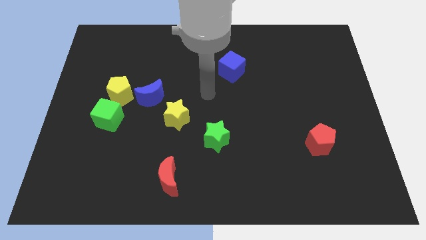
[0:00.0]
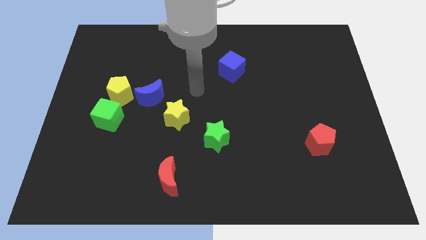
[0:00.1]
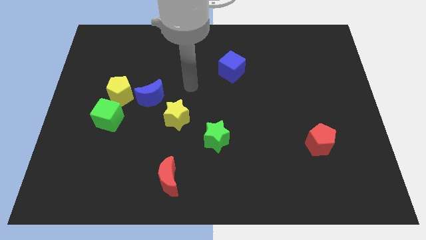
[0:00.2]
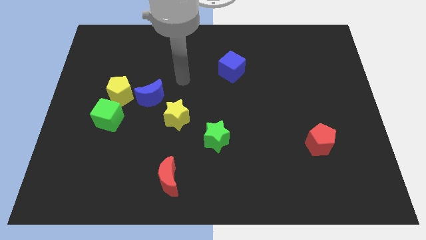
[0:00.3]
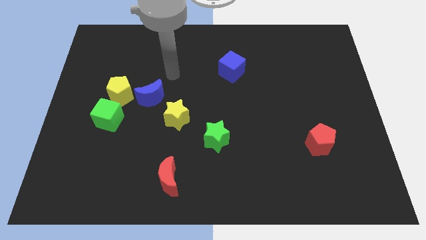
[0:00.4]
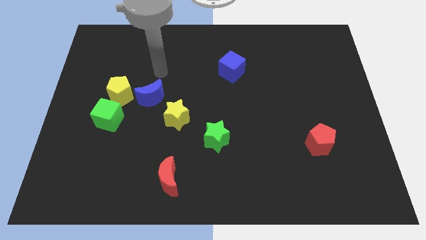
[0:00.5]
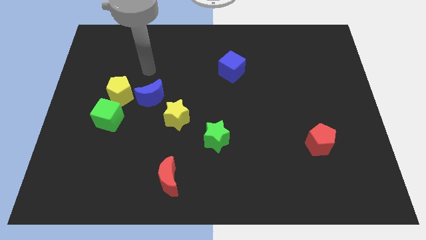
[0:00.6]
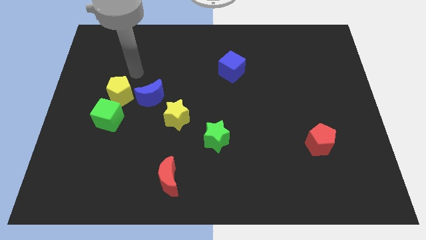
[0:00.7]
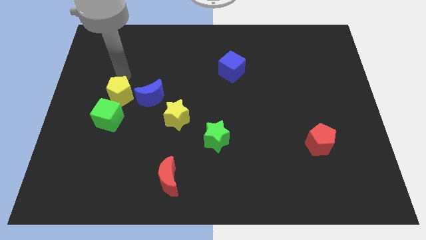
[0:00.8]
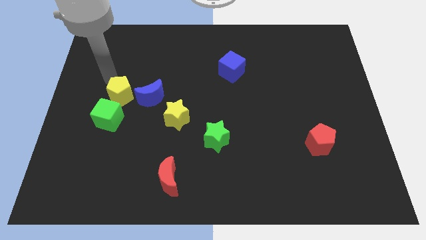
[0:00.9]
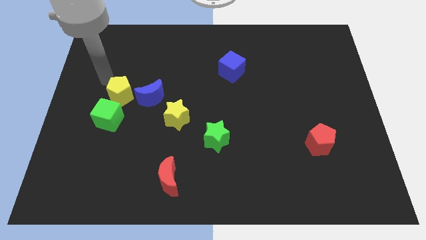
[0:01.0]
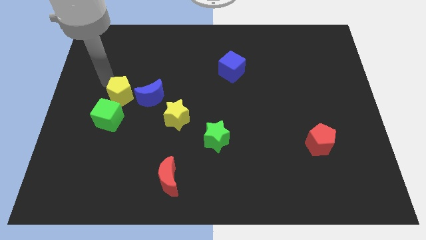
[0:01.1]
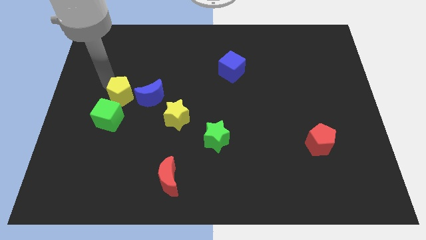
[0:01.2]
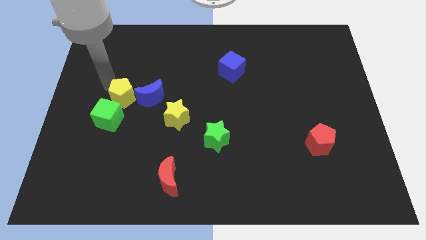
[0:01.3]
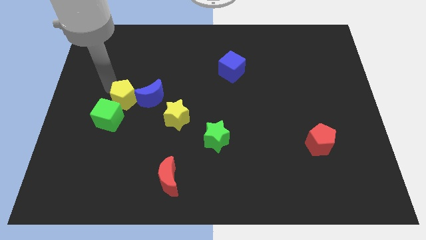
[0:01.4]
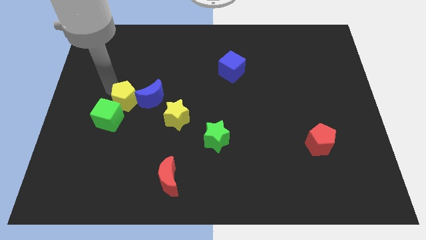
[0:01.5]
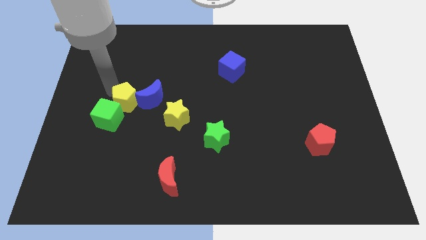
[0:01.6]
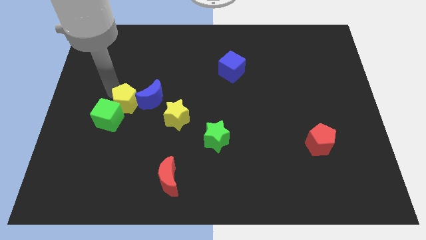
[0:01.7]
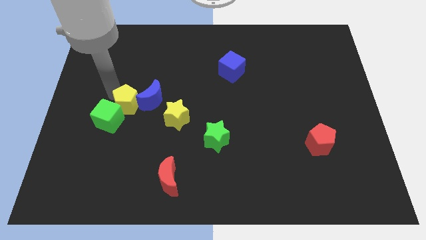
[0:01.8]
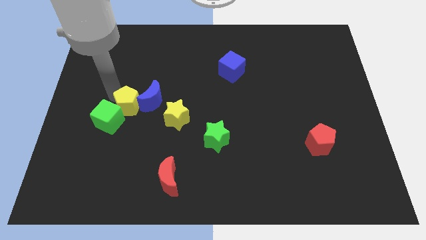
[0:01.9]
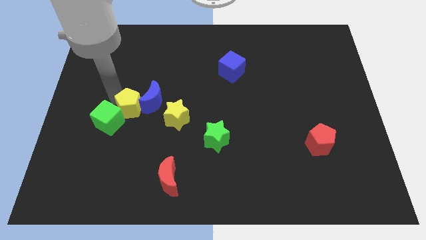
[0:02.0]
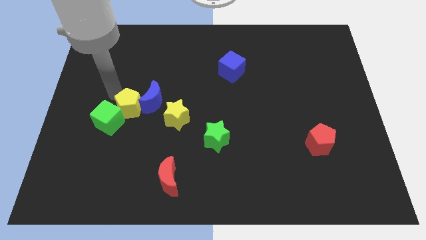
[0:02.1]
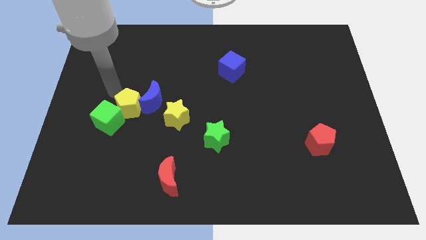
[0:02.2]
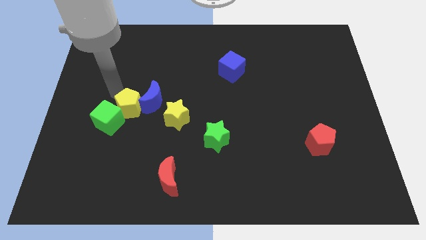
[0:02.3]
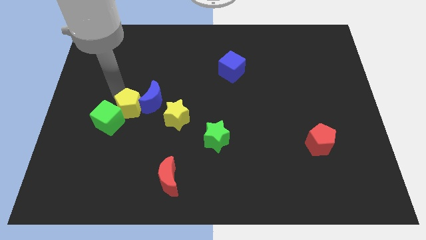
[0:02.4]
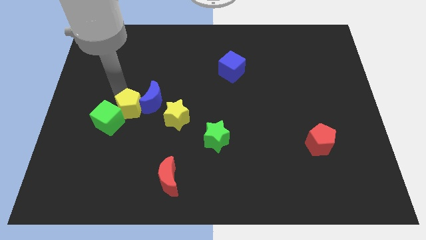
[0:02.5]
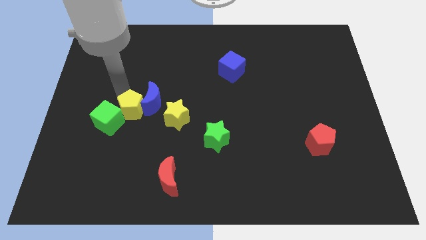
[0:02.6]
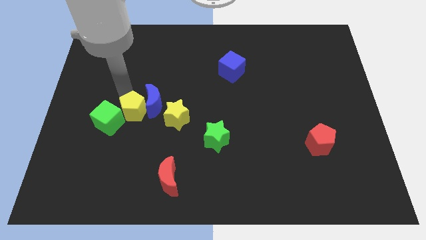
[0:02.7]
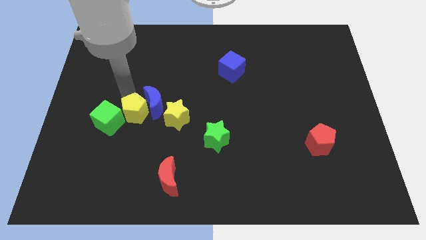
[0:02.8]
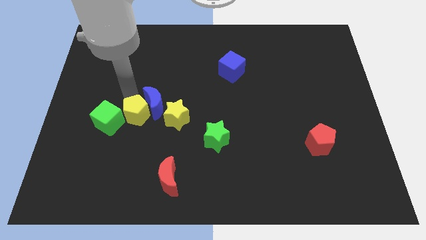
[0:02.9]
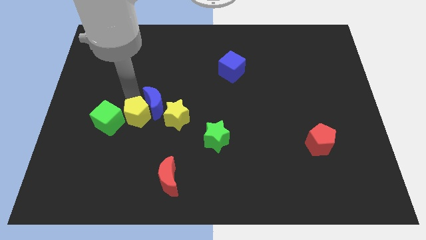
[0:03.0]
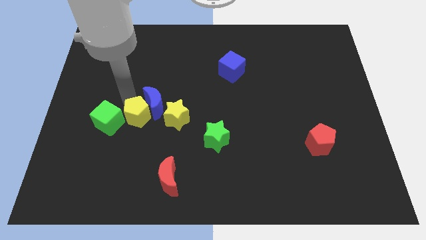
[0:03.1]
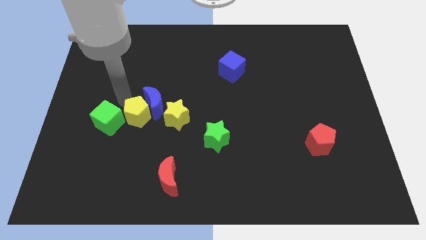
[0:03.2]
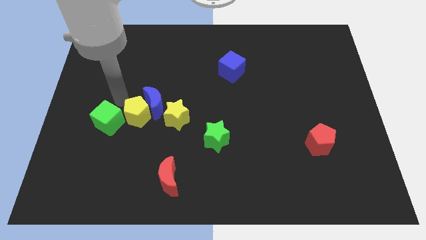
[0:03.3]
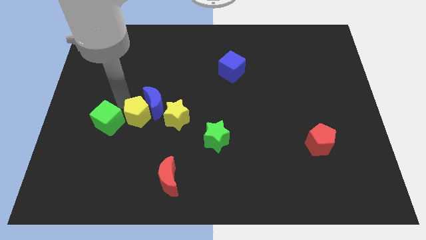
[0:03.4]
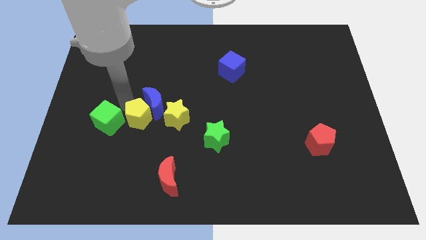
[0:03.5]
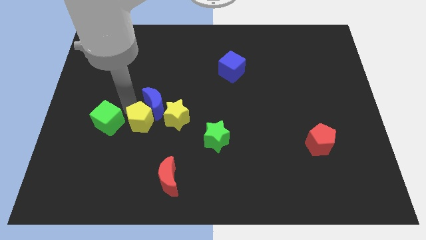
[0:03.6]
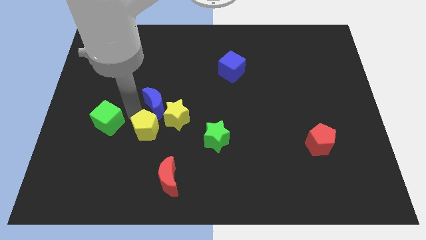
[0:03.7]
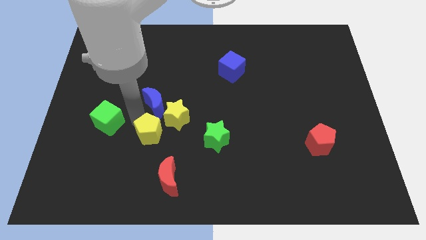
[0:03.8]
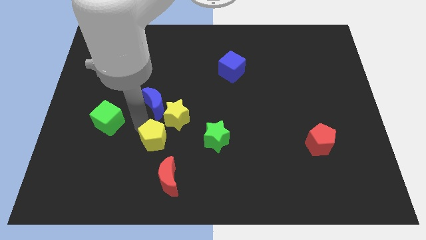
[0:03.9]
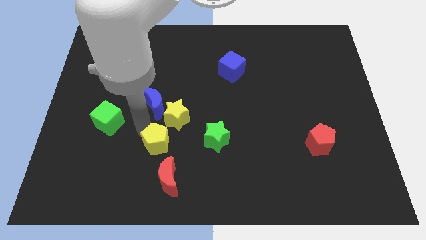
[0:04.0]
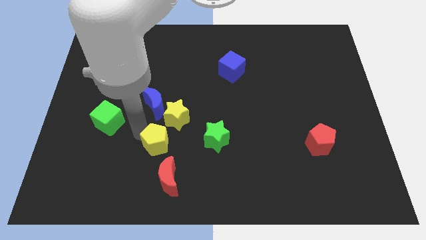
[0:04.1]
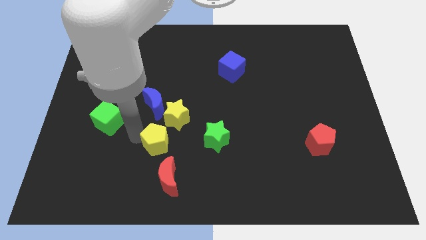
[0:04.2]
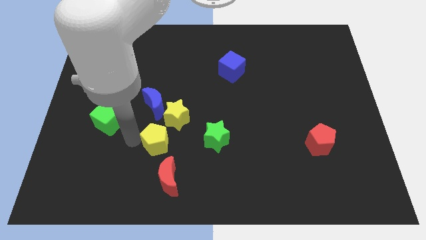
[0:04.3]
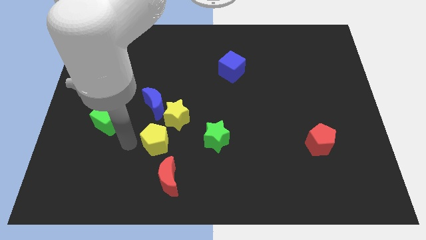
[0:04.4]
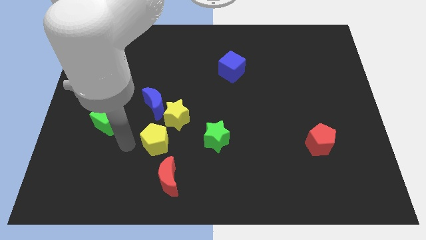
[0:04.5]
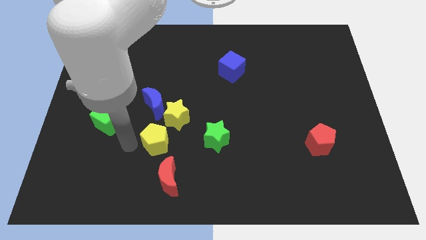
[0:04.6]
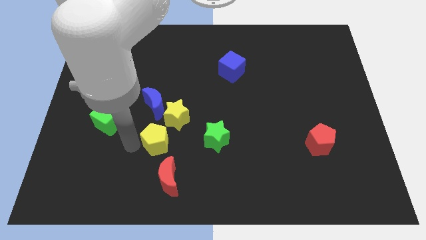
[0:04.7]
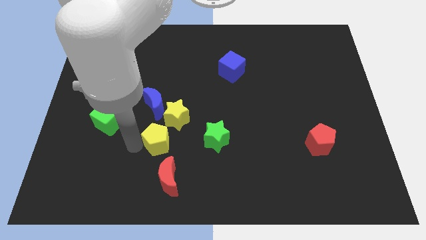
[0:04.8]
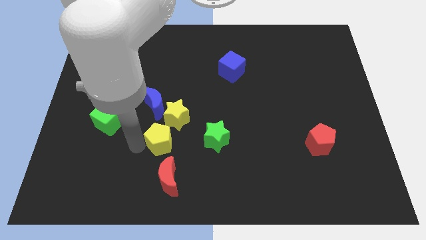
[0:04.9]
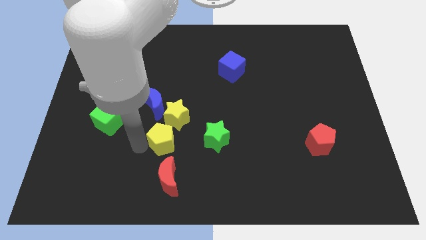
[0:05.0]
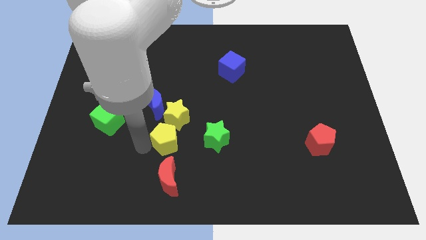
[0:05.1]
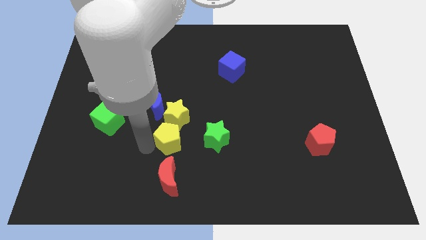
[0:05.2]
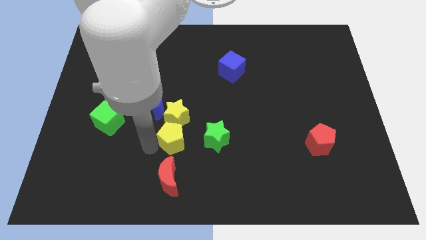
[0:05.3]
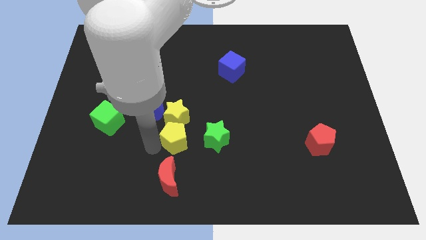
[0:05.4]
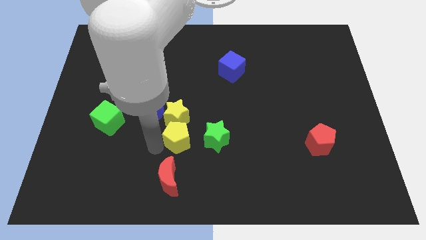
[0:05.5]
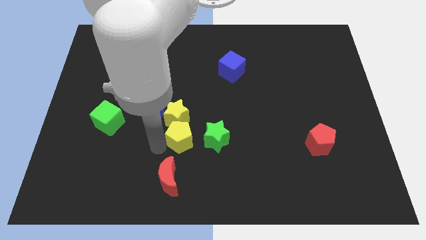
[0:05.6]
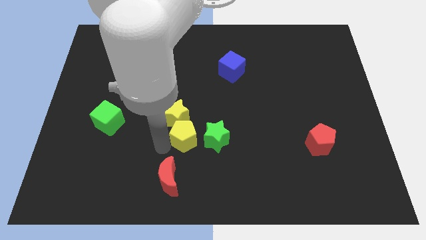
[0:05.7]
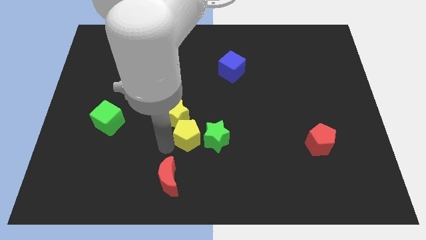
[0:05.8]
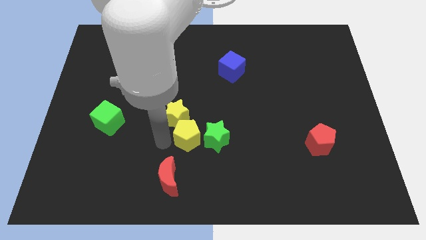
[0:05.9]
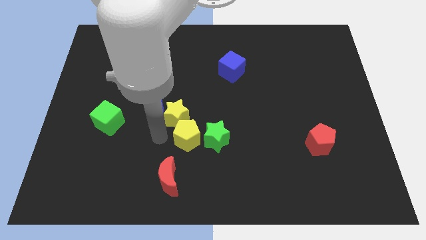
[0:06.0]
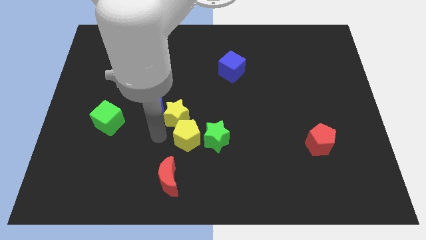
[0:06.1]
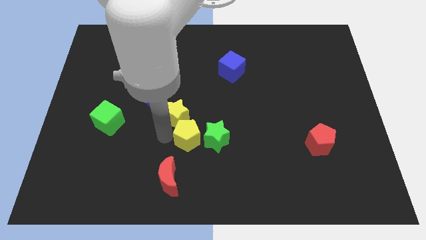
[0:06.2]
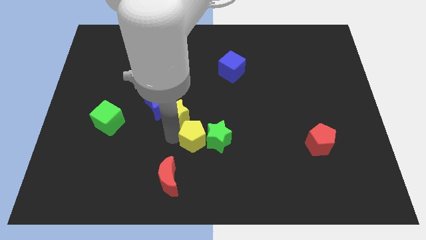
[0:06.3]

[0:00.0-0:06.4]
push the yellow pentagon next to the green star

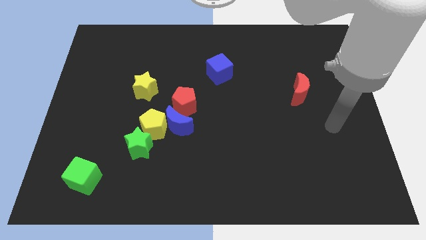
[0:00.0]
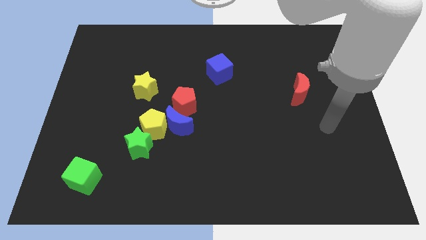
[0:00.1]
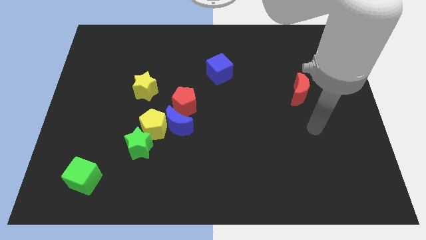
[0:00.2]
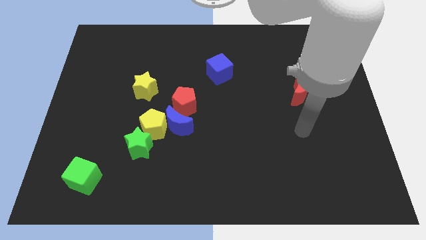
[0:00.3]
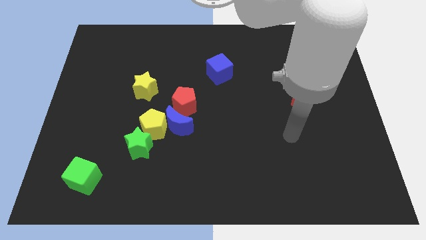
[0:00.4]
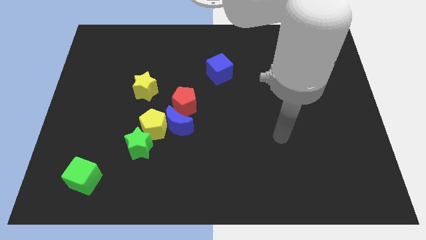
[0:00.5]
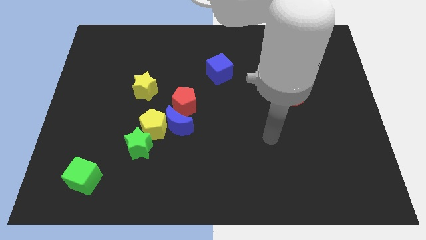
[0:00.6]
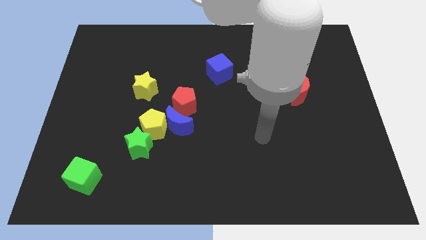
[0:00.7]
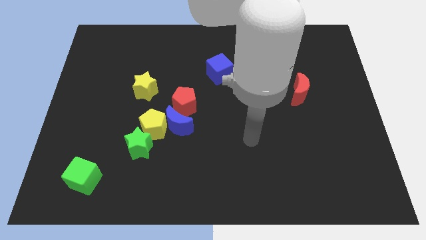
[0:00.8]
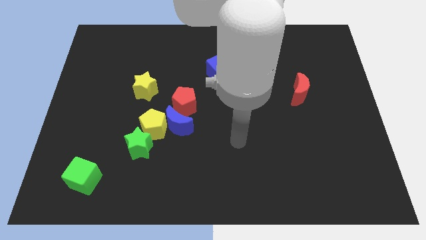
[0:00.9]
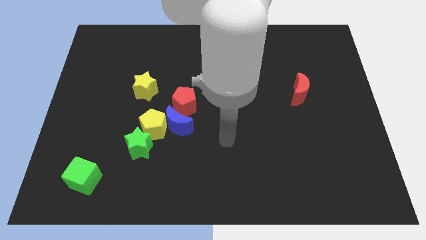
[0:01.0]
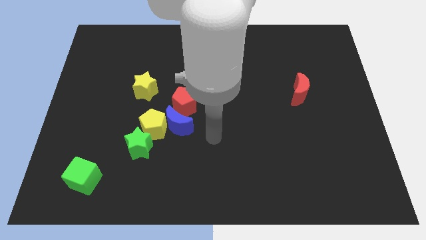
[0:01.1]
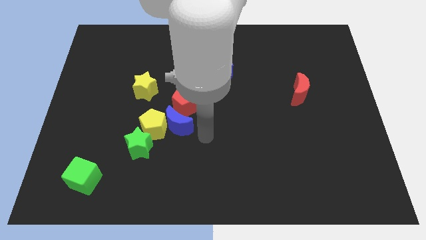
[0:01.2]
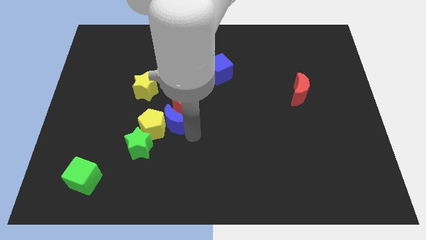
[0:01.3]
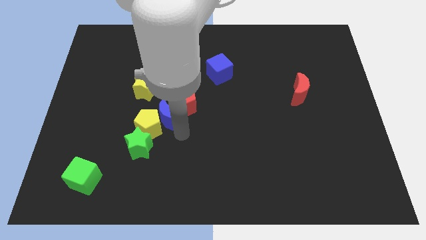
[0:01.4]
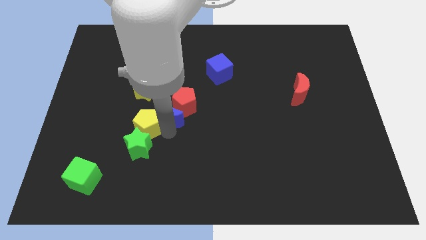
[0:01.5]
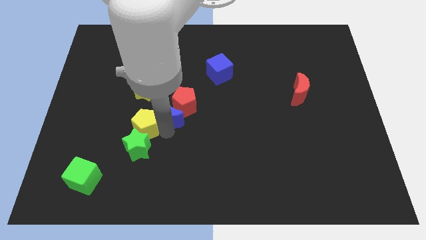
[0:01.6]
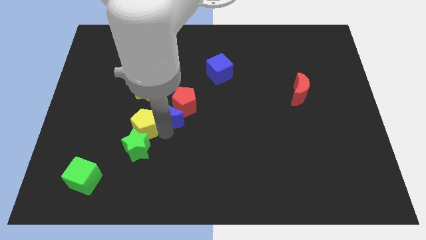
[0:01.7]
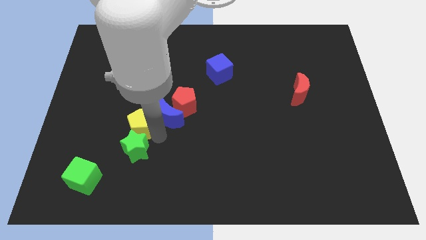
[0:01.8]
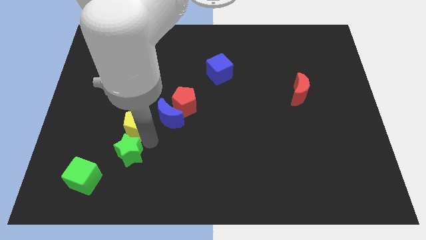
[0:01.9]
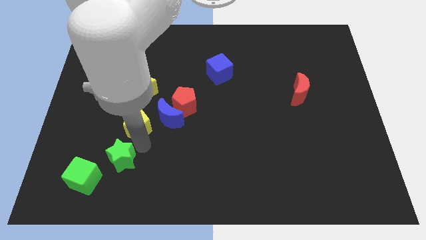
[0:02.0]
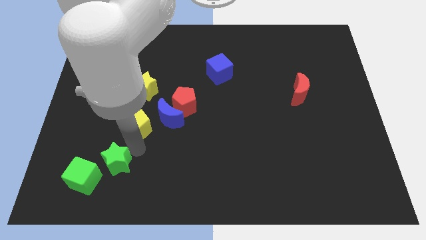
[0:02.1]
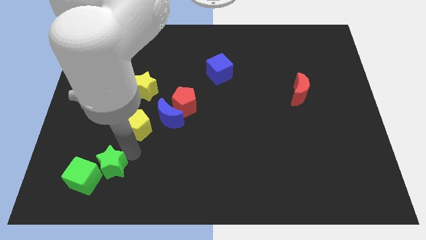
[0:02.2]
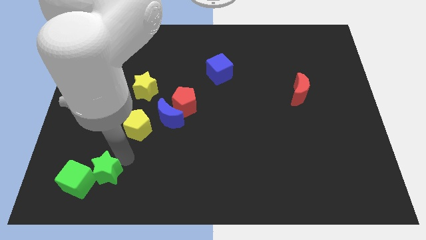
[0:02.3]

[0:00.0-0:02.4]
push the green star to the green cube
